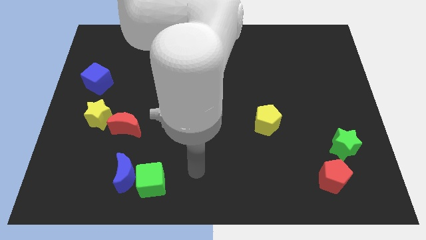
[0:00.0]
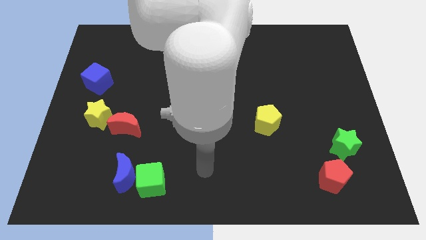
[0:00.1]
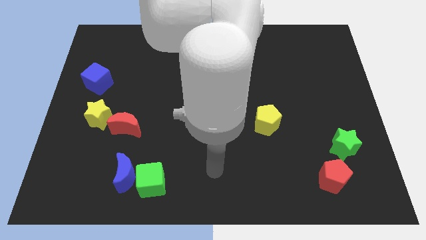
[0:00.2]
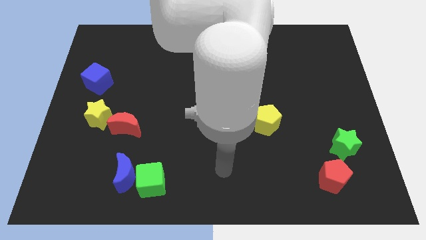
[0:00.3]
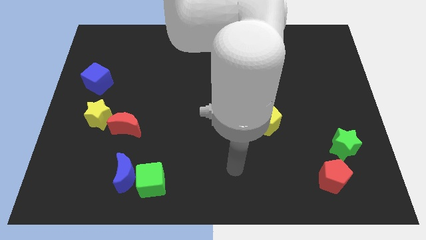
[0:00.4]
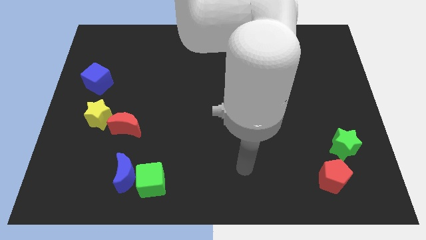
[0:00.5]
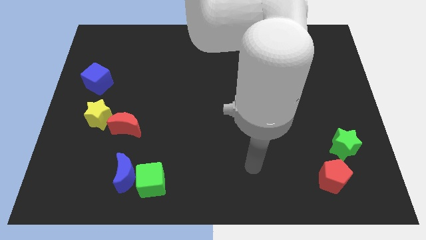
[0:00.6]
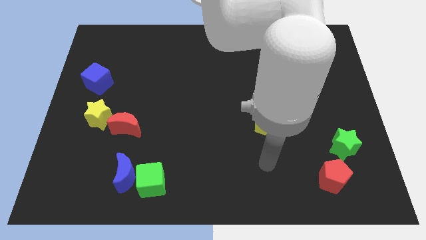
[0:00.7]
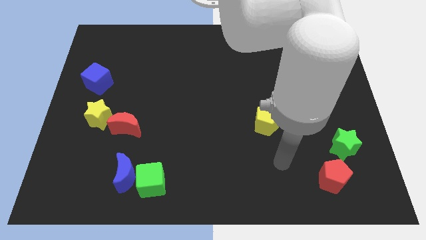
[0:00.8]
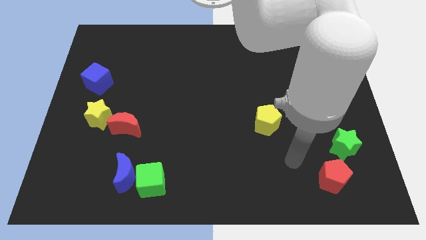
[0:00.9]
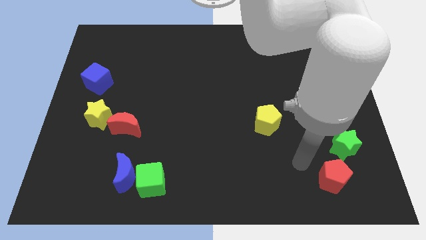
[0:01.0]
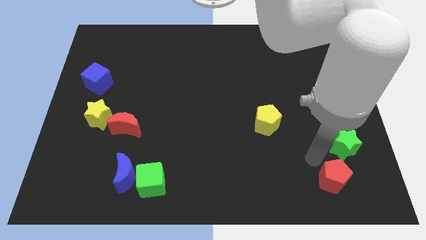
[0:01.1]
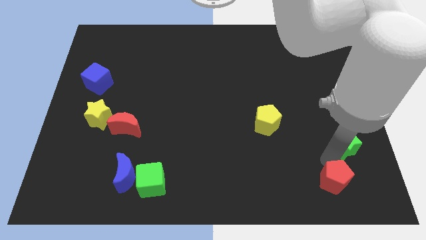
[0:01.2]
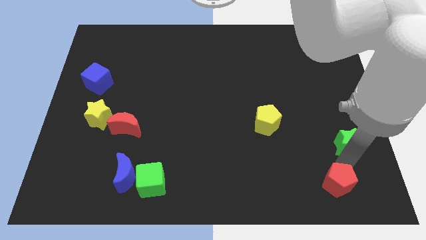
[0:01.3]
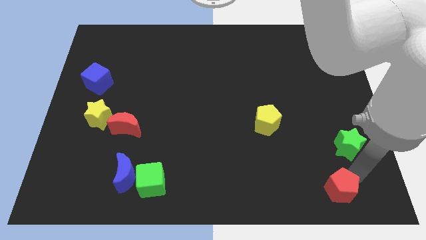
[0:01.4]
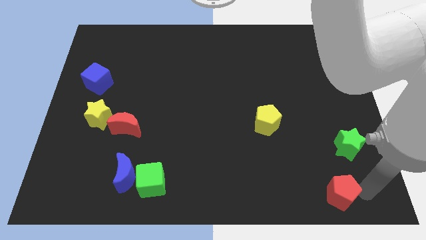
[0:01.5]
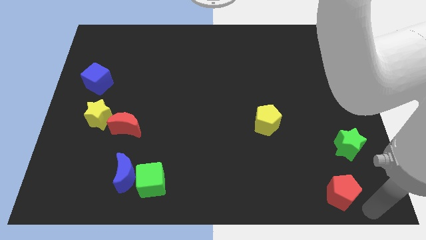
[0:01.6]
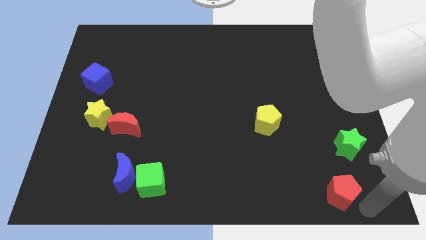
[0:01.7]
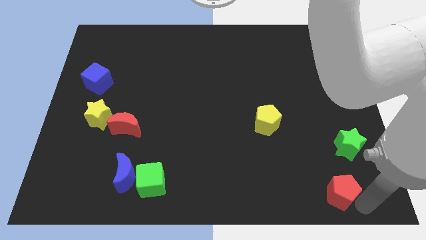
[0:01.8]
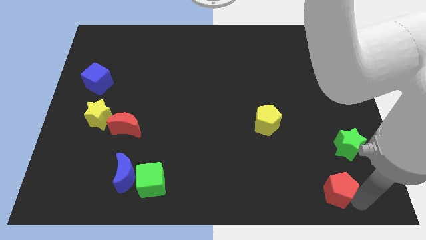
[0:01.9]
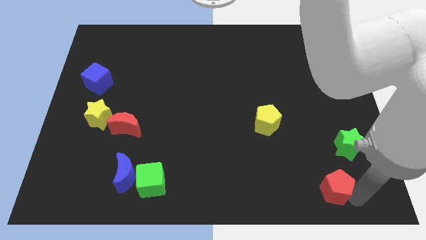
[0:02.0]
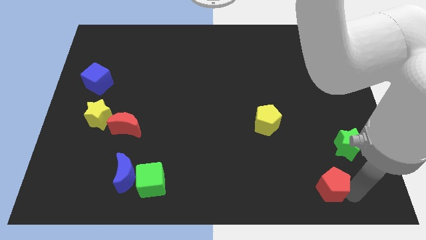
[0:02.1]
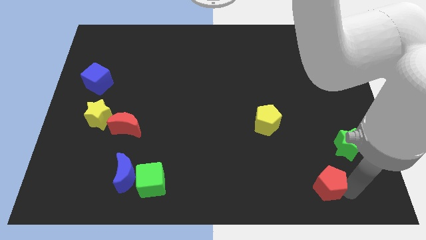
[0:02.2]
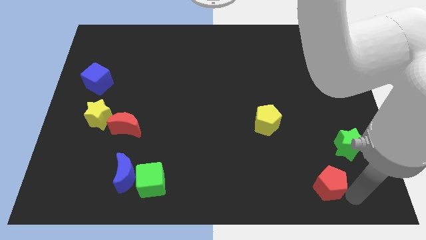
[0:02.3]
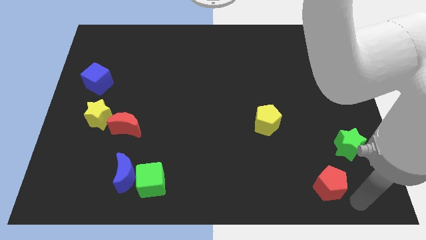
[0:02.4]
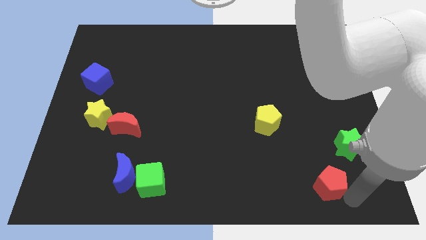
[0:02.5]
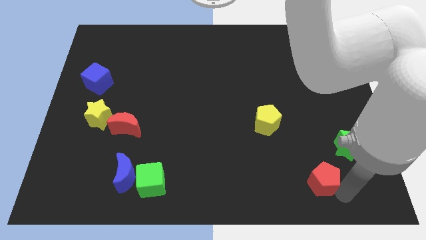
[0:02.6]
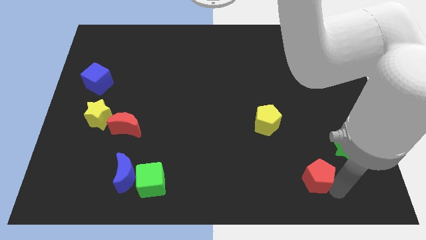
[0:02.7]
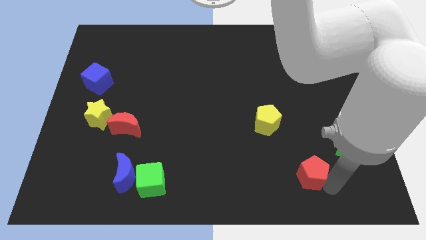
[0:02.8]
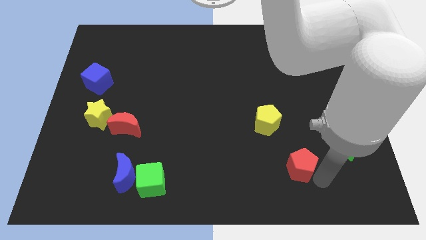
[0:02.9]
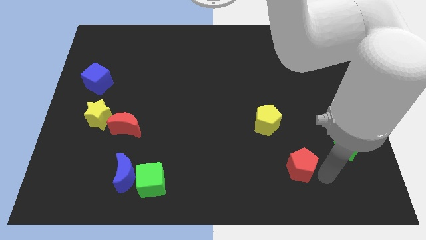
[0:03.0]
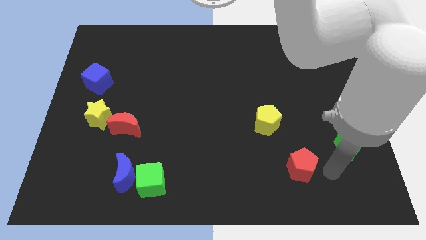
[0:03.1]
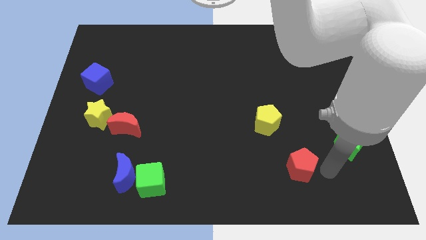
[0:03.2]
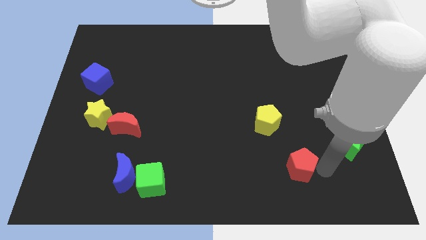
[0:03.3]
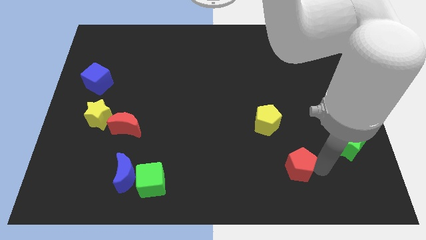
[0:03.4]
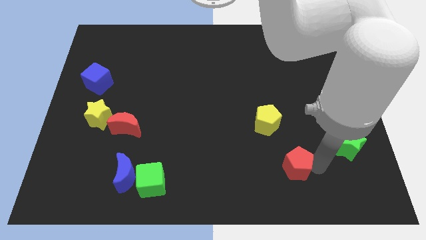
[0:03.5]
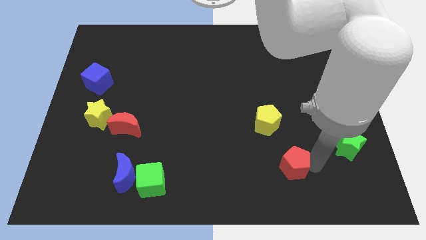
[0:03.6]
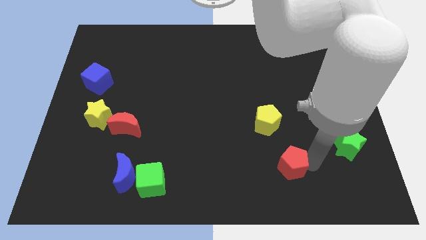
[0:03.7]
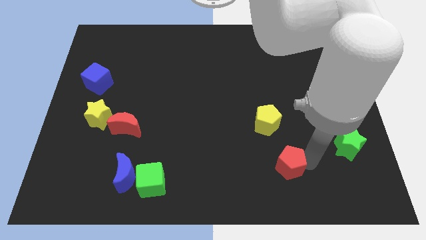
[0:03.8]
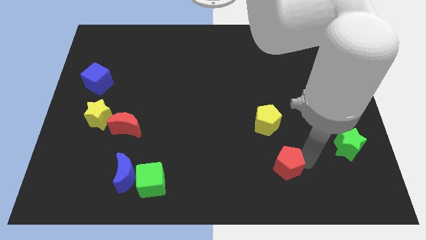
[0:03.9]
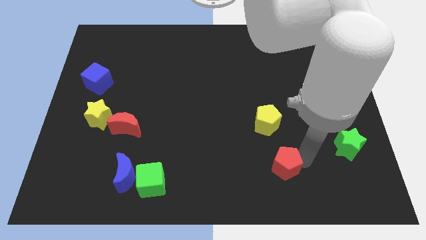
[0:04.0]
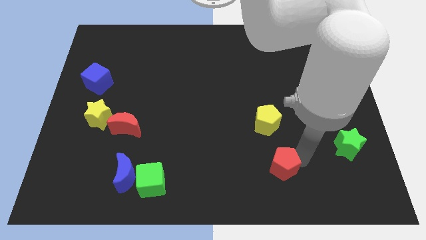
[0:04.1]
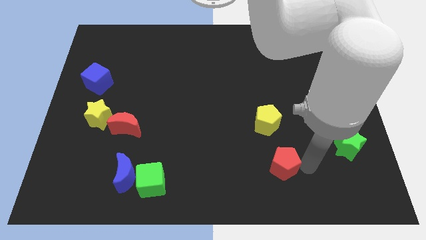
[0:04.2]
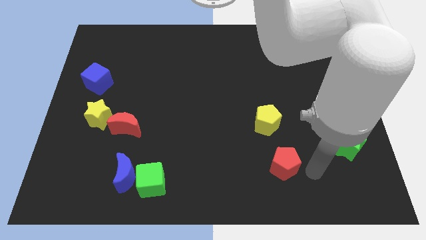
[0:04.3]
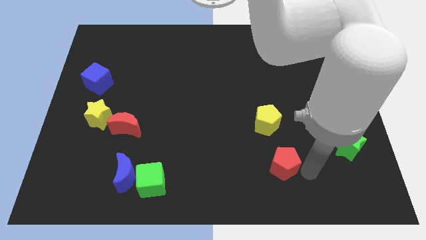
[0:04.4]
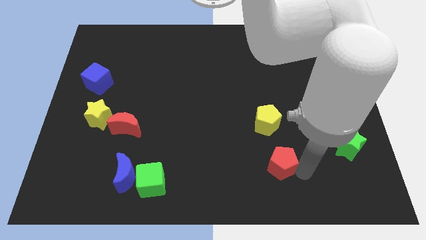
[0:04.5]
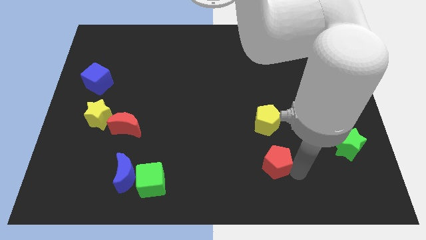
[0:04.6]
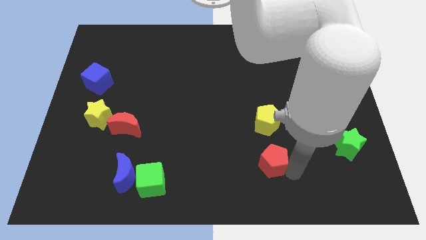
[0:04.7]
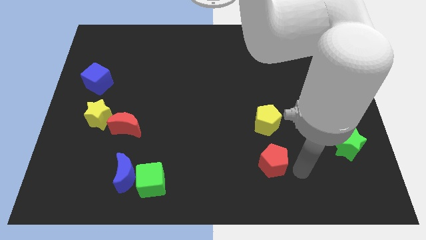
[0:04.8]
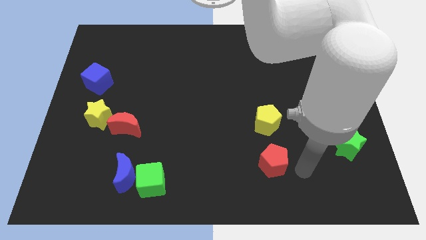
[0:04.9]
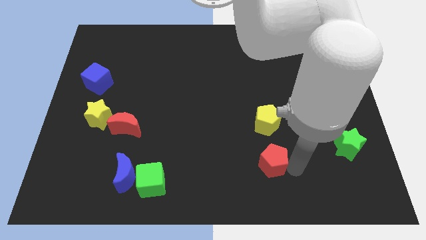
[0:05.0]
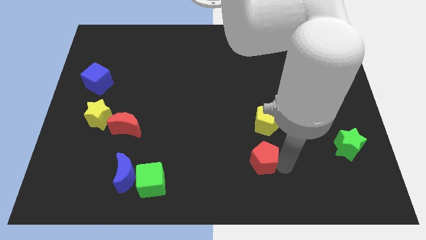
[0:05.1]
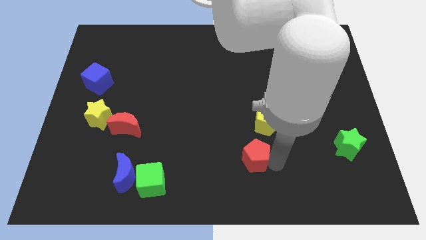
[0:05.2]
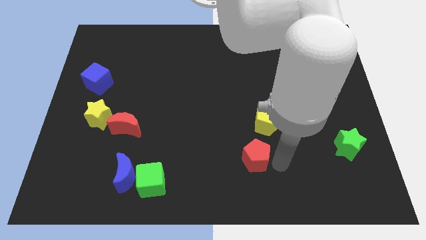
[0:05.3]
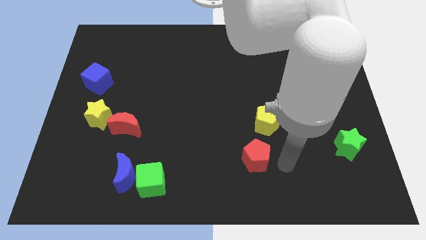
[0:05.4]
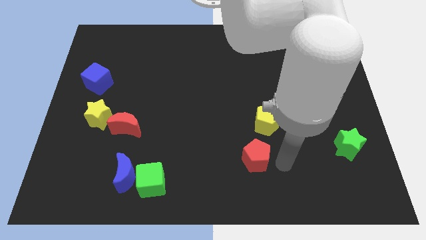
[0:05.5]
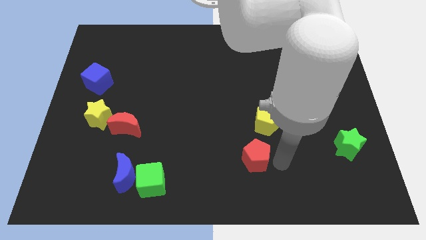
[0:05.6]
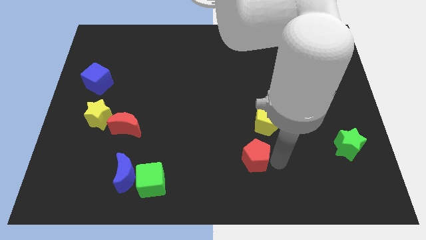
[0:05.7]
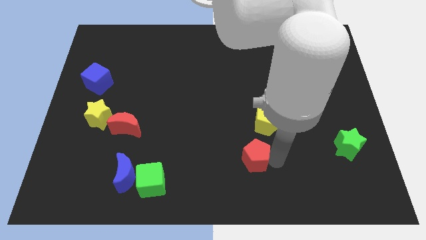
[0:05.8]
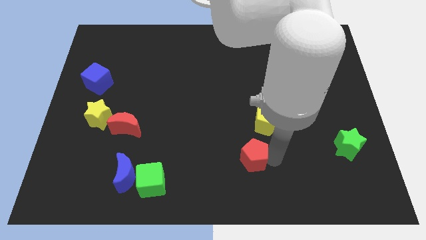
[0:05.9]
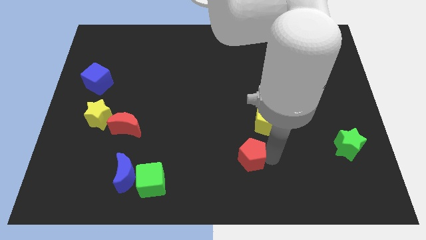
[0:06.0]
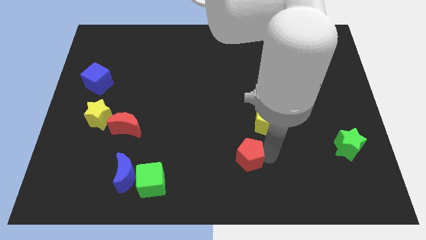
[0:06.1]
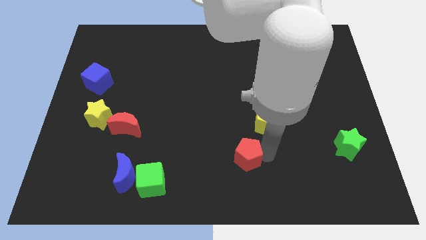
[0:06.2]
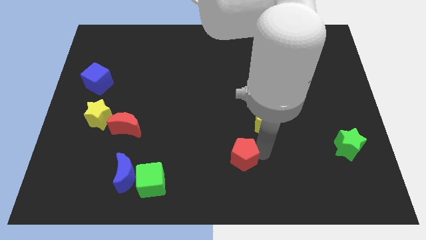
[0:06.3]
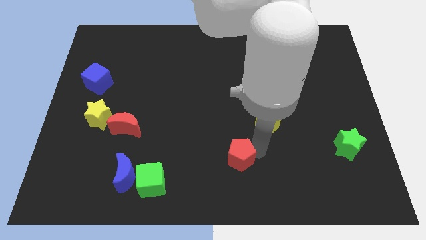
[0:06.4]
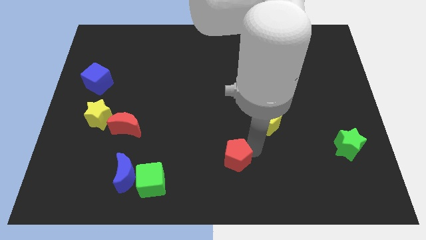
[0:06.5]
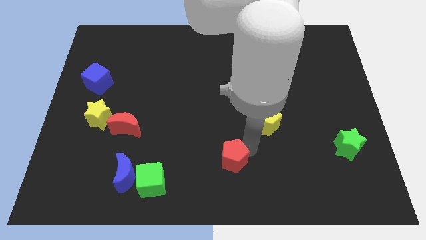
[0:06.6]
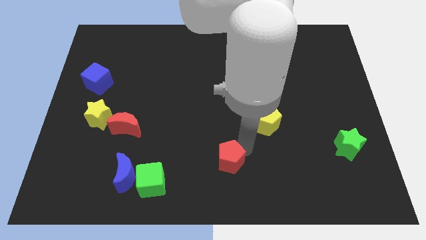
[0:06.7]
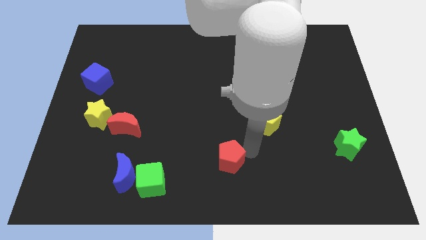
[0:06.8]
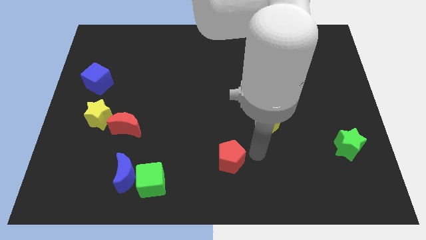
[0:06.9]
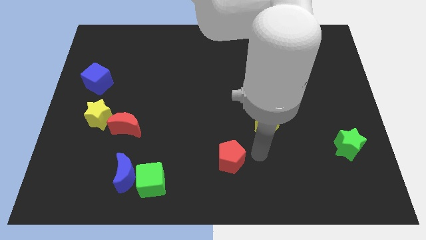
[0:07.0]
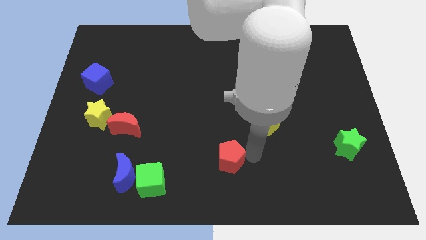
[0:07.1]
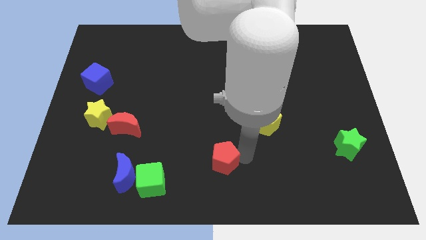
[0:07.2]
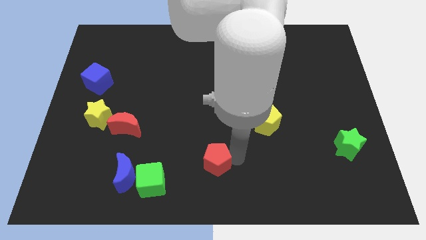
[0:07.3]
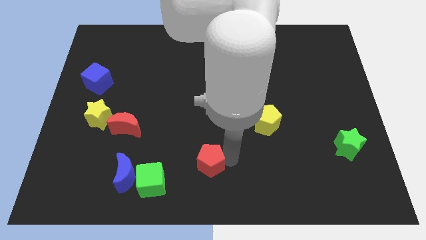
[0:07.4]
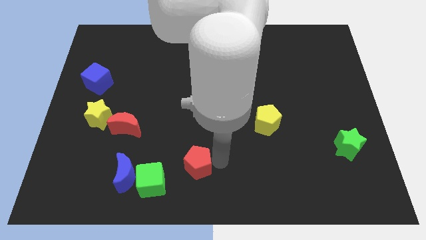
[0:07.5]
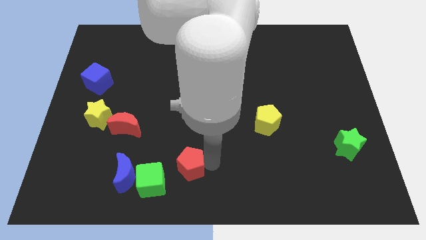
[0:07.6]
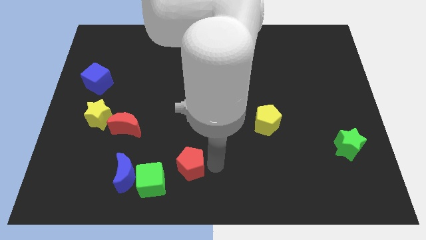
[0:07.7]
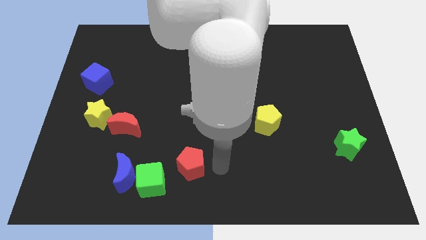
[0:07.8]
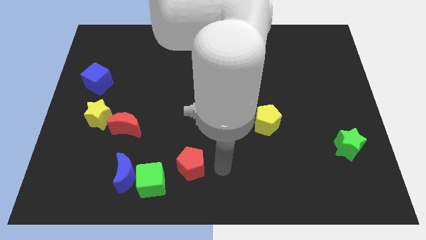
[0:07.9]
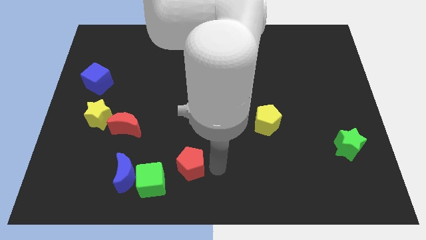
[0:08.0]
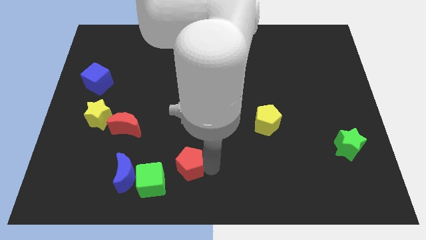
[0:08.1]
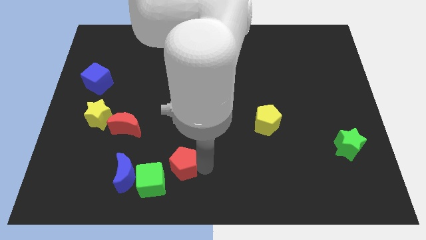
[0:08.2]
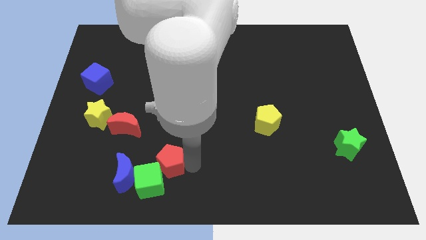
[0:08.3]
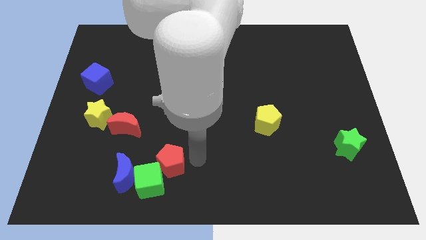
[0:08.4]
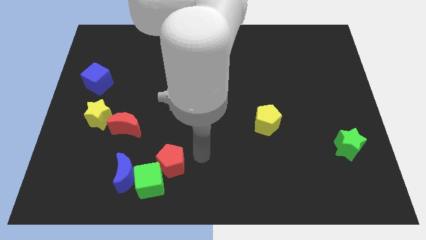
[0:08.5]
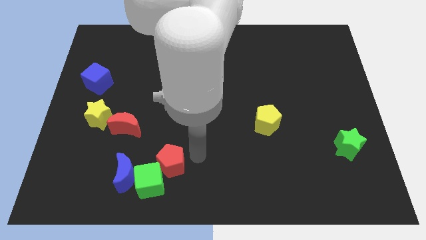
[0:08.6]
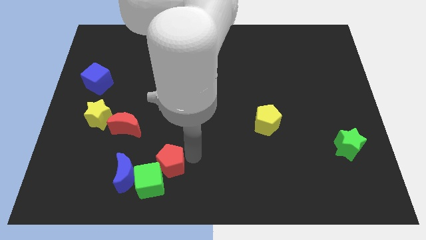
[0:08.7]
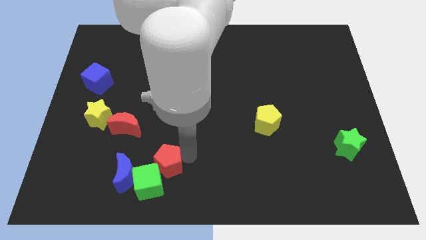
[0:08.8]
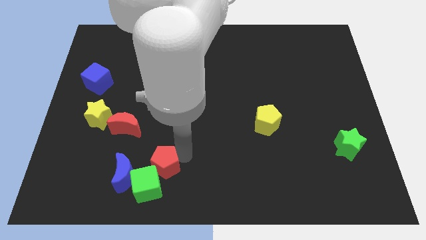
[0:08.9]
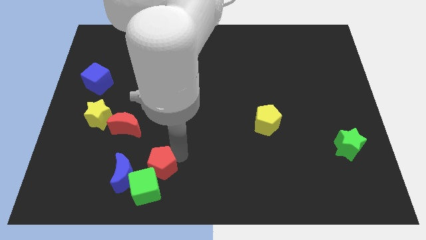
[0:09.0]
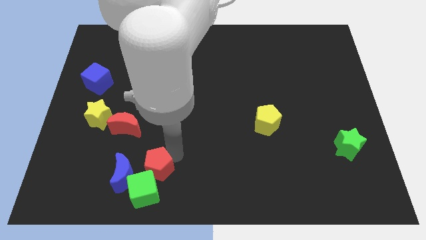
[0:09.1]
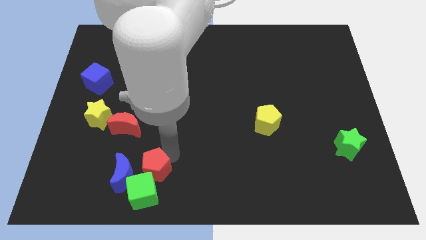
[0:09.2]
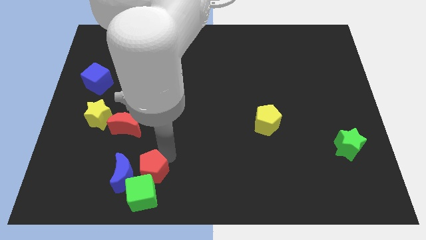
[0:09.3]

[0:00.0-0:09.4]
push the red pentagon to the blue moon
